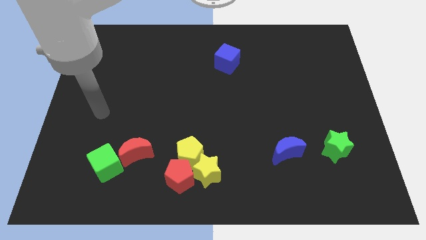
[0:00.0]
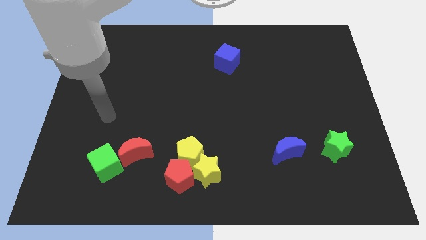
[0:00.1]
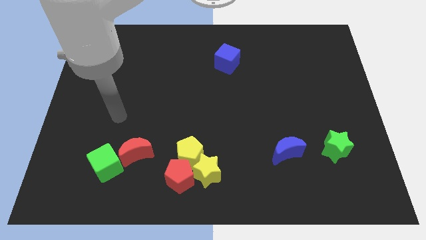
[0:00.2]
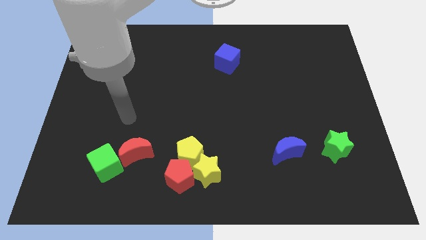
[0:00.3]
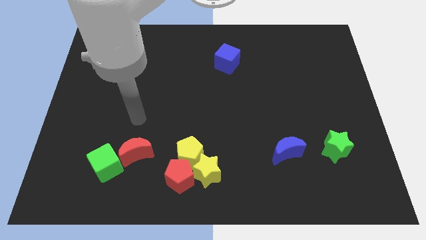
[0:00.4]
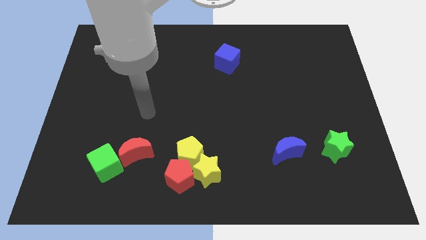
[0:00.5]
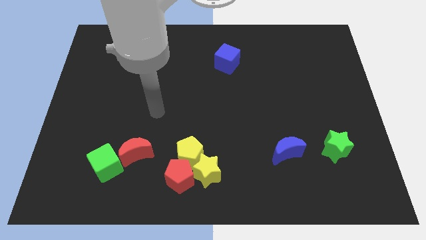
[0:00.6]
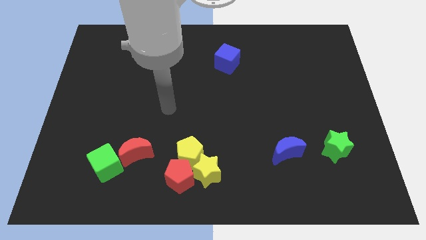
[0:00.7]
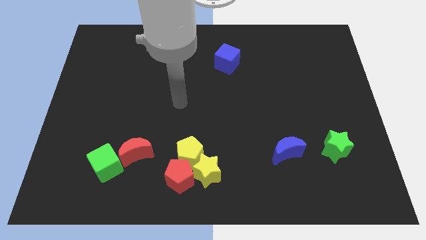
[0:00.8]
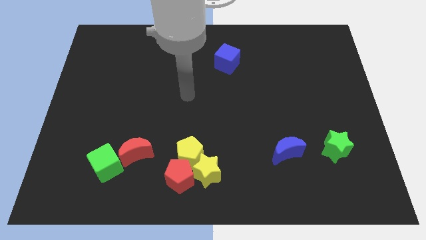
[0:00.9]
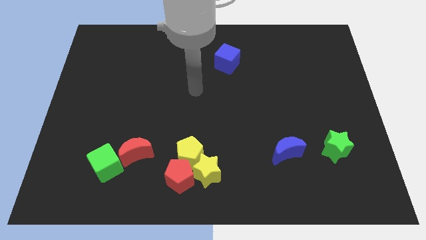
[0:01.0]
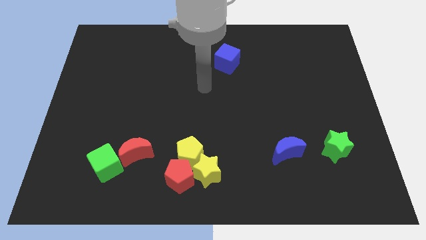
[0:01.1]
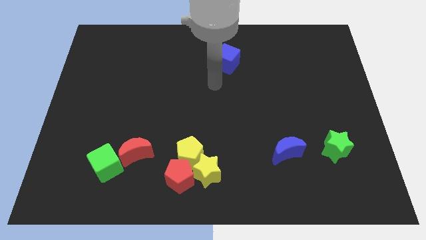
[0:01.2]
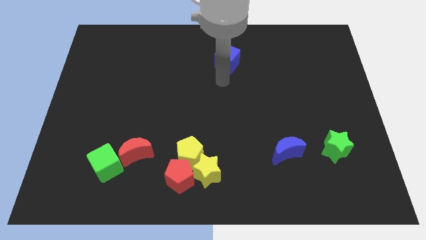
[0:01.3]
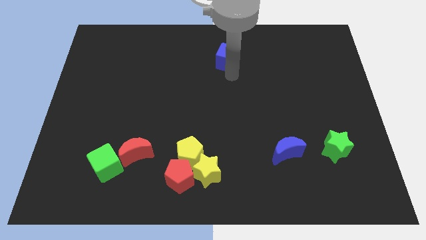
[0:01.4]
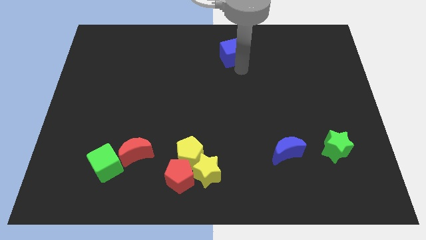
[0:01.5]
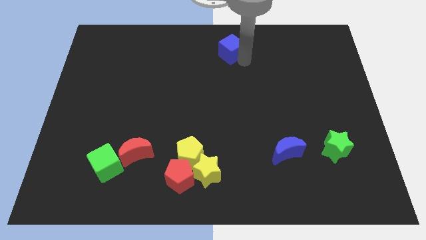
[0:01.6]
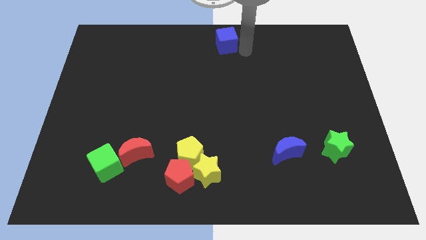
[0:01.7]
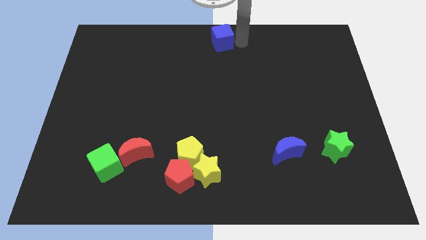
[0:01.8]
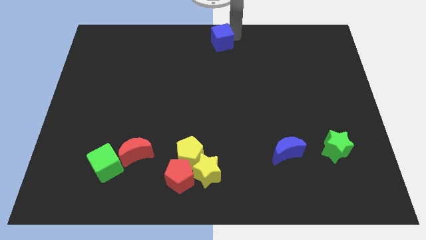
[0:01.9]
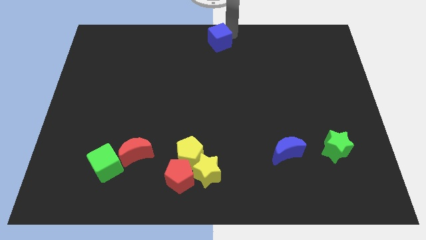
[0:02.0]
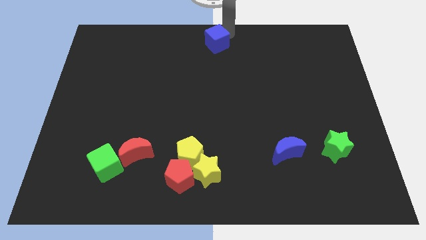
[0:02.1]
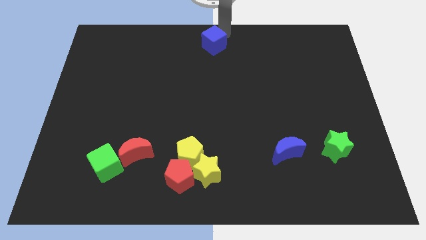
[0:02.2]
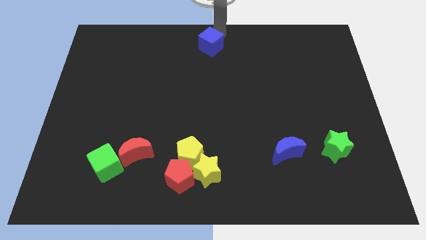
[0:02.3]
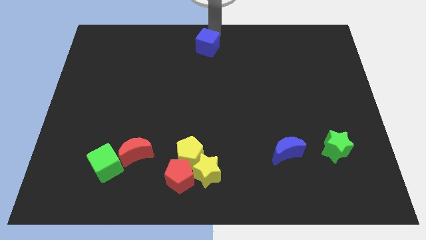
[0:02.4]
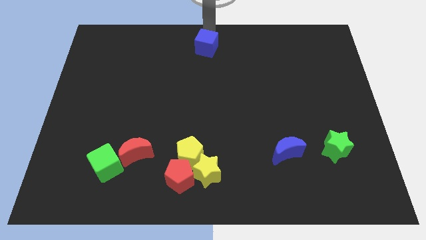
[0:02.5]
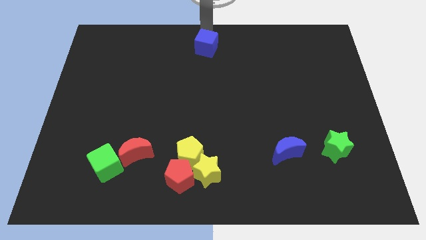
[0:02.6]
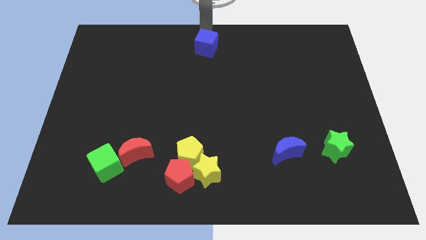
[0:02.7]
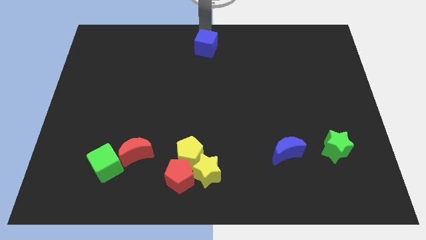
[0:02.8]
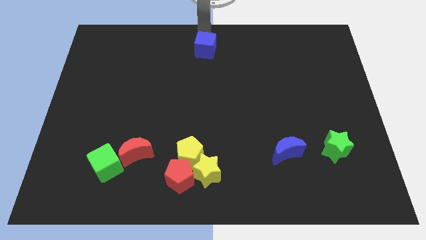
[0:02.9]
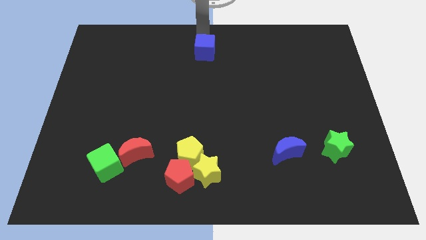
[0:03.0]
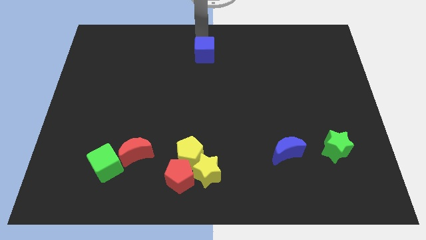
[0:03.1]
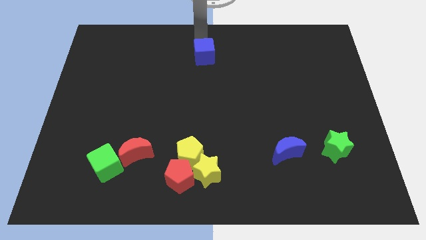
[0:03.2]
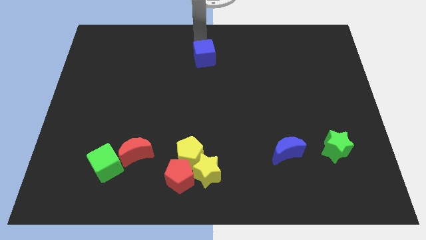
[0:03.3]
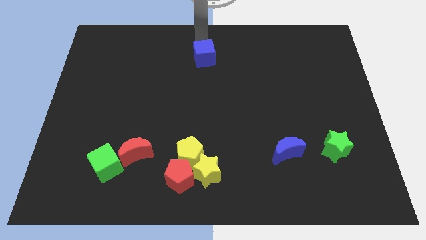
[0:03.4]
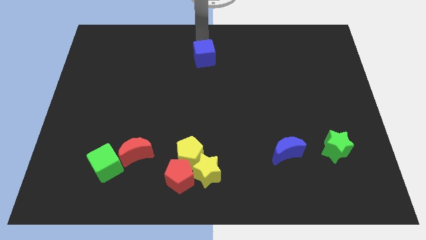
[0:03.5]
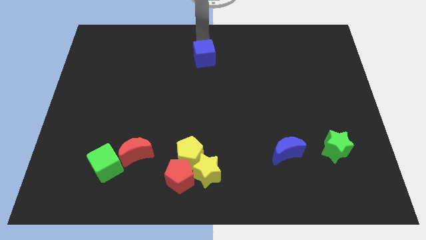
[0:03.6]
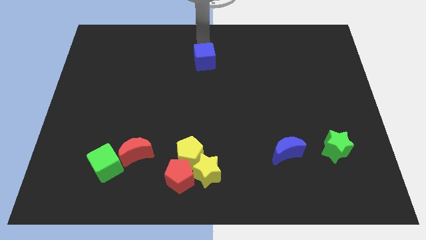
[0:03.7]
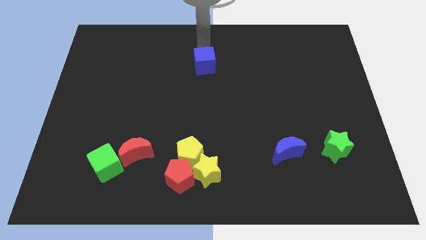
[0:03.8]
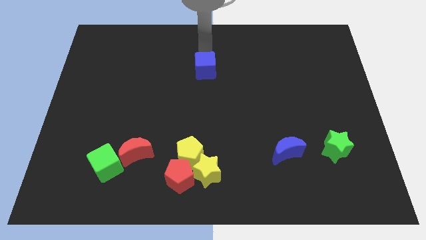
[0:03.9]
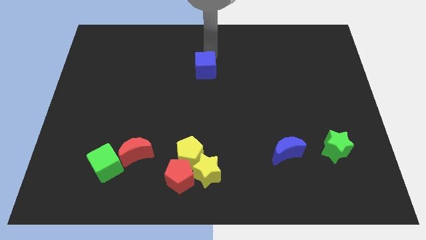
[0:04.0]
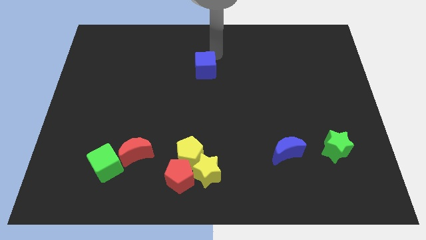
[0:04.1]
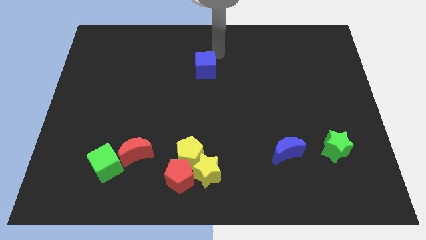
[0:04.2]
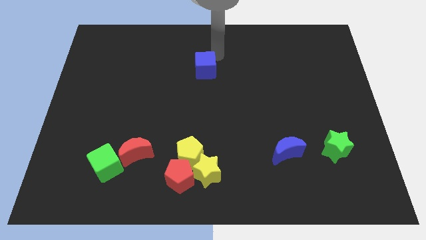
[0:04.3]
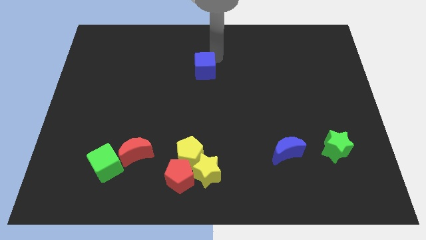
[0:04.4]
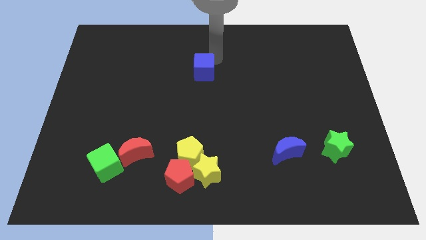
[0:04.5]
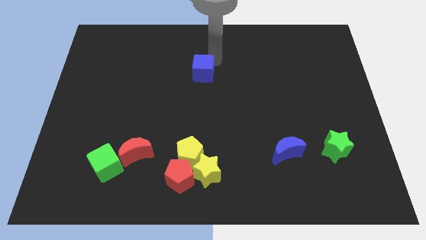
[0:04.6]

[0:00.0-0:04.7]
slightly push the blue cube downwards and to the left

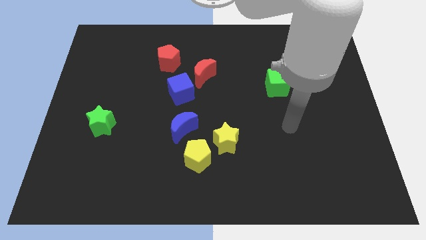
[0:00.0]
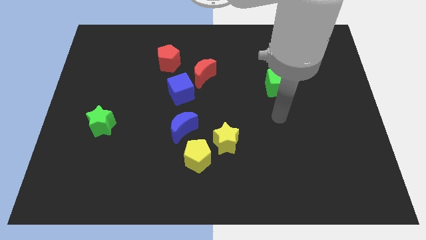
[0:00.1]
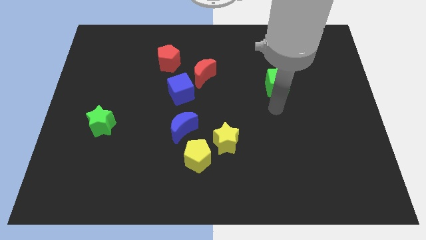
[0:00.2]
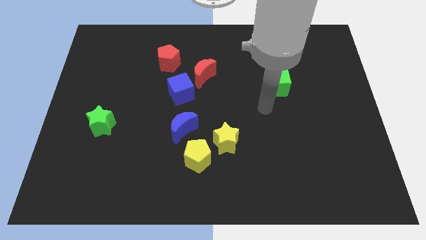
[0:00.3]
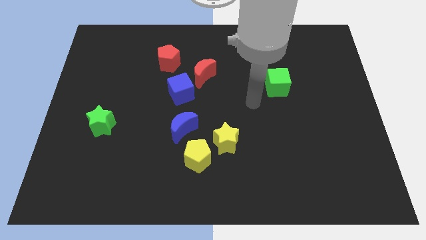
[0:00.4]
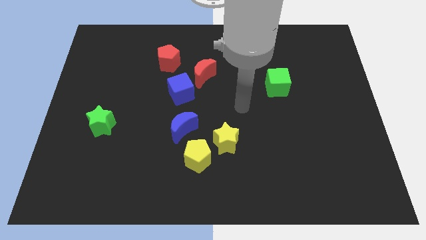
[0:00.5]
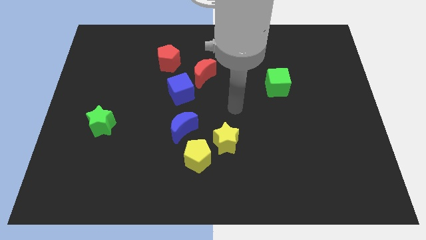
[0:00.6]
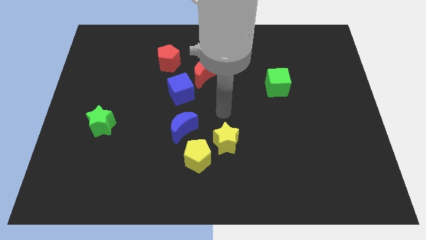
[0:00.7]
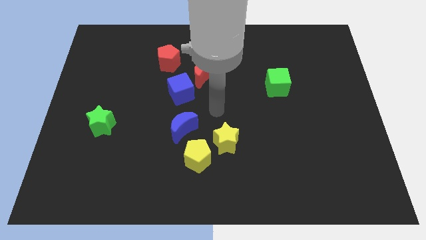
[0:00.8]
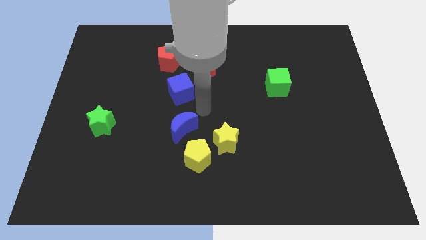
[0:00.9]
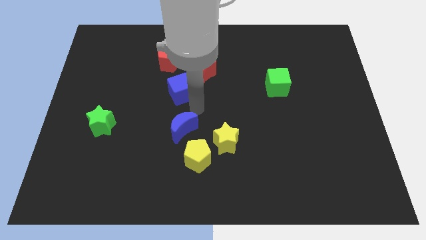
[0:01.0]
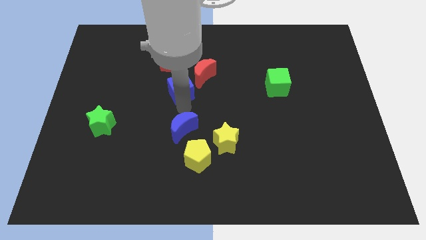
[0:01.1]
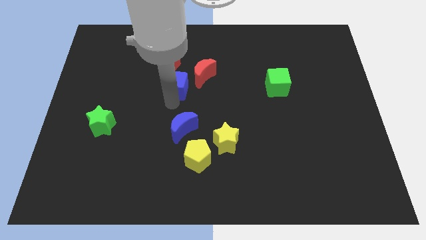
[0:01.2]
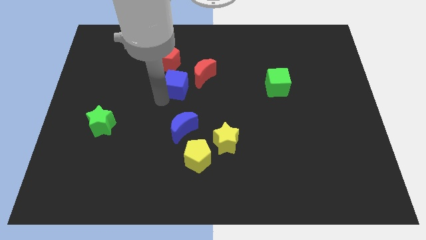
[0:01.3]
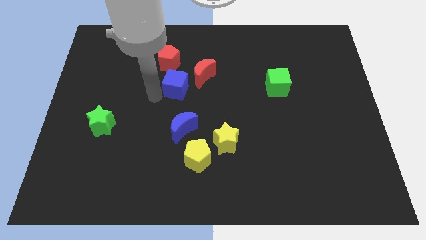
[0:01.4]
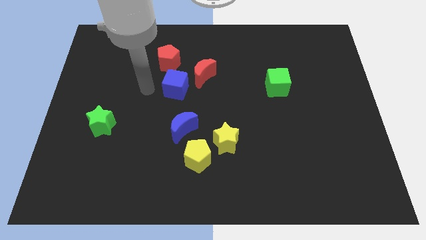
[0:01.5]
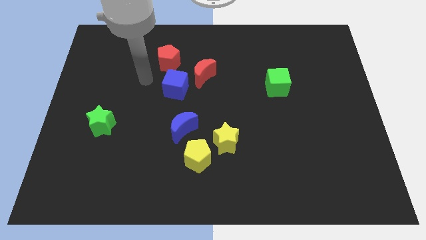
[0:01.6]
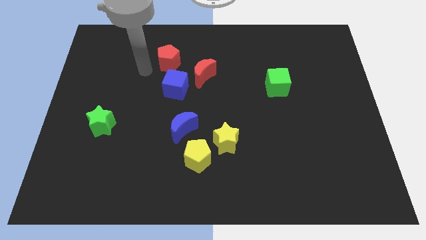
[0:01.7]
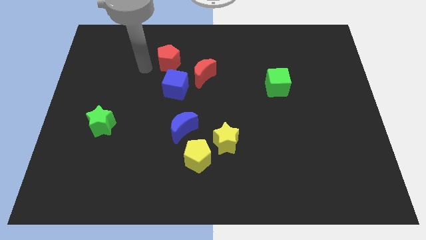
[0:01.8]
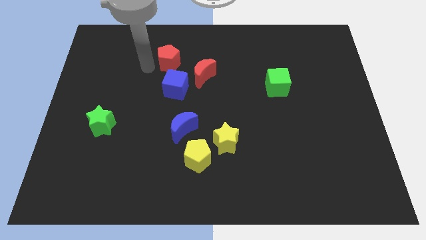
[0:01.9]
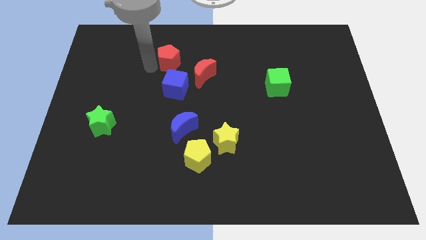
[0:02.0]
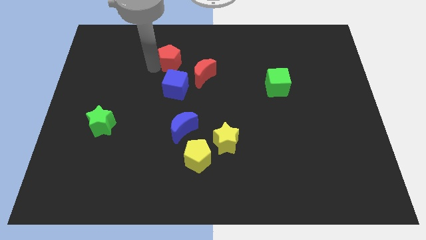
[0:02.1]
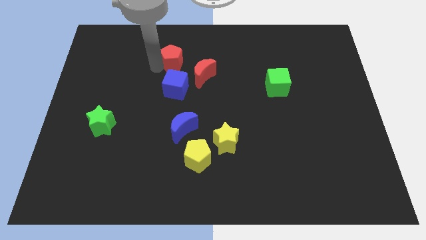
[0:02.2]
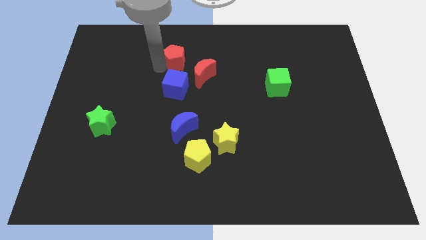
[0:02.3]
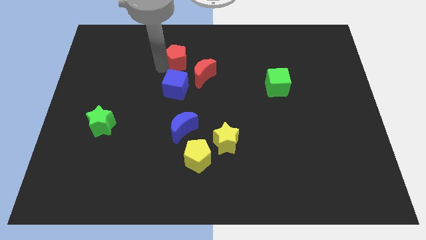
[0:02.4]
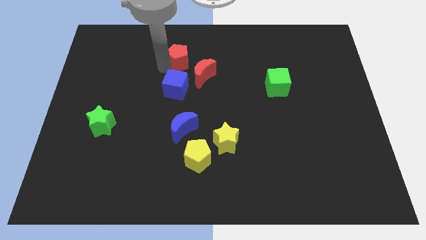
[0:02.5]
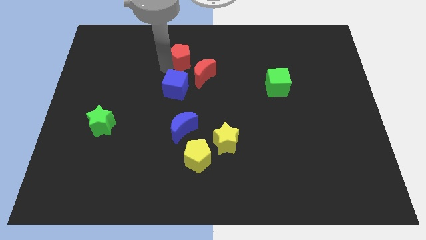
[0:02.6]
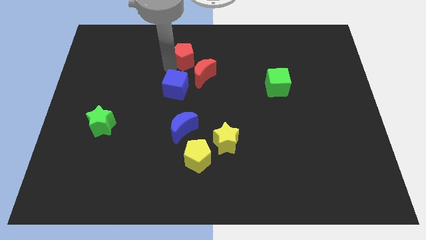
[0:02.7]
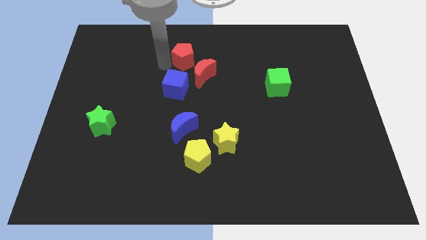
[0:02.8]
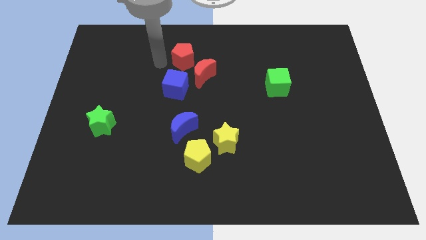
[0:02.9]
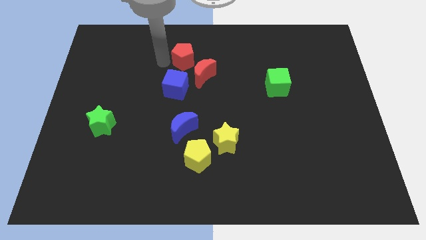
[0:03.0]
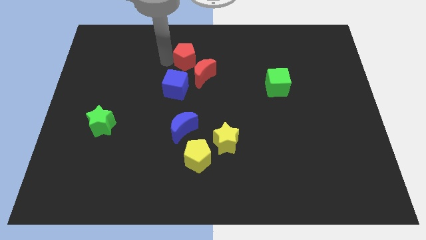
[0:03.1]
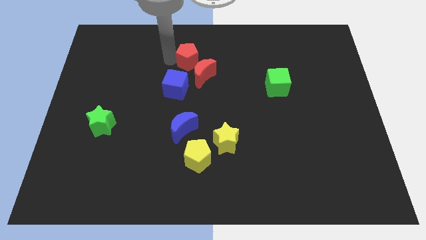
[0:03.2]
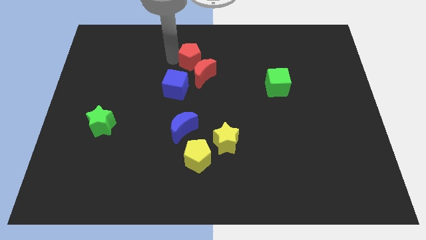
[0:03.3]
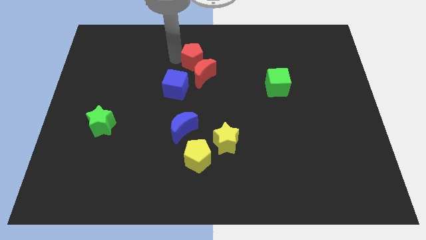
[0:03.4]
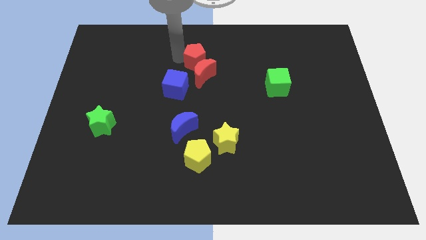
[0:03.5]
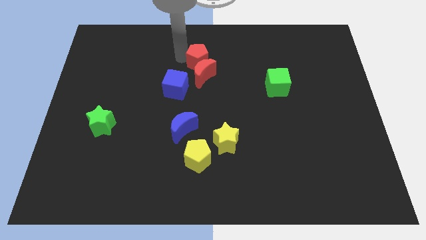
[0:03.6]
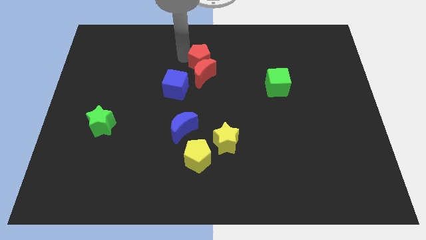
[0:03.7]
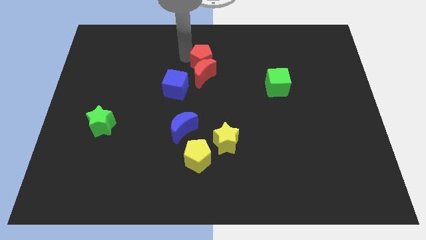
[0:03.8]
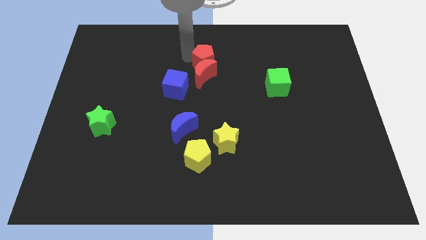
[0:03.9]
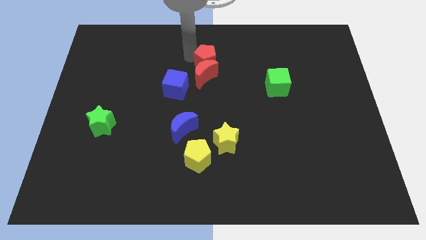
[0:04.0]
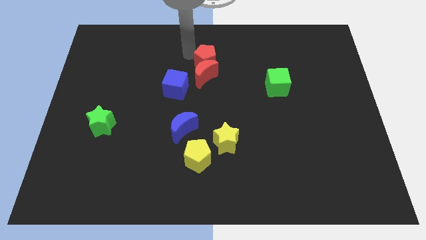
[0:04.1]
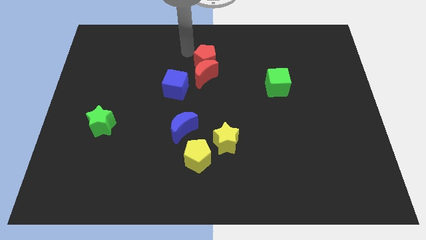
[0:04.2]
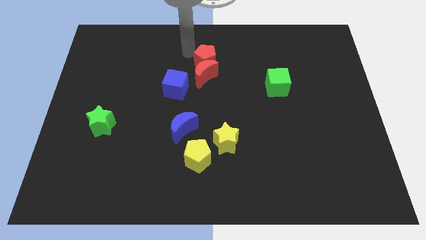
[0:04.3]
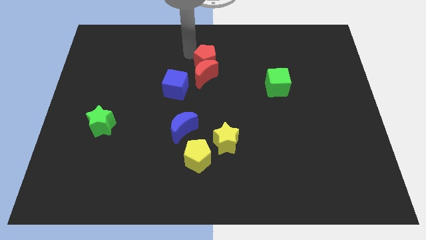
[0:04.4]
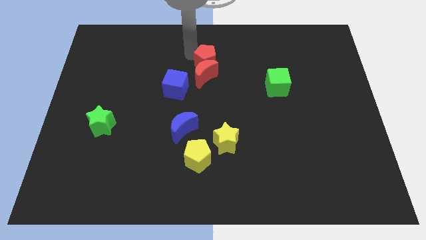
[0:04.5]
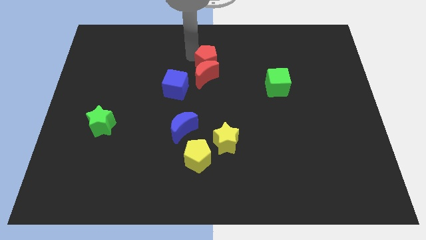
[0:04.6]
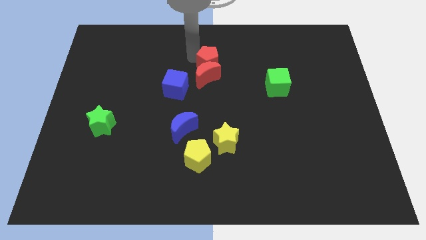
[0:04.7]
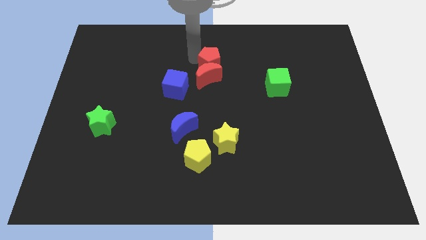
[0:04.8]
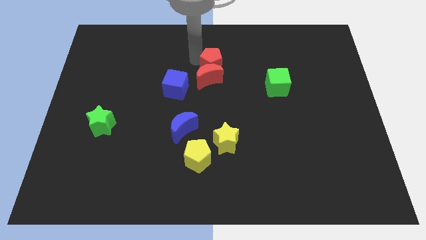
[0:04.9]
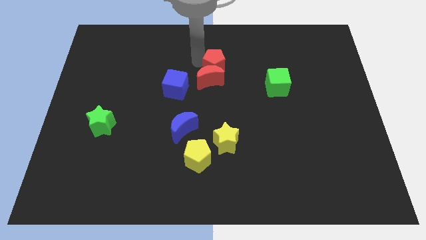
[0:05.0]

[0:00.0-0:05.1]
move the red pentagon diagonally downwards and to the right slightly
